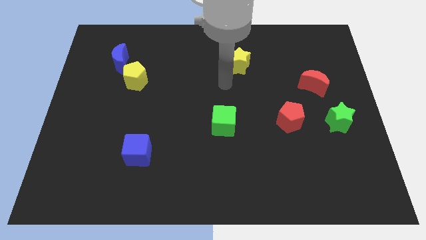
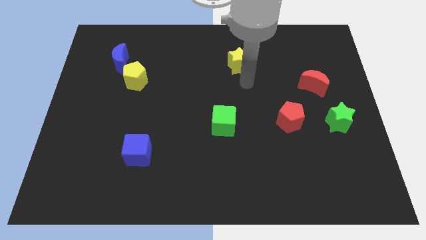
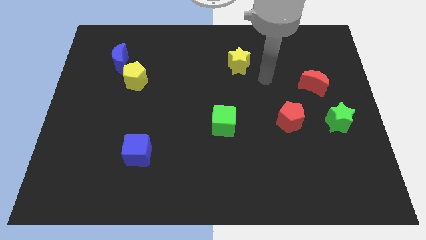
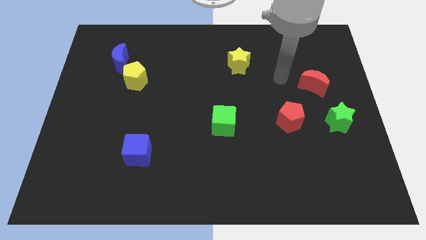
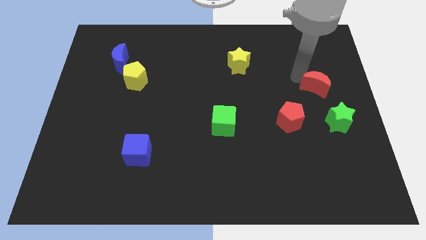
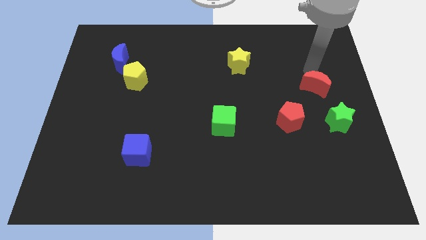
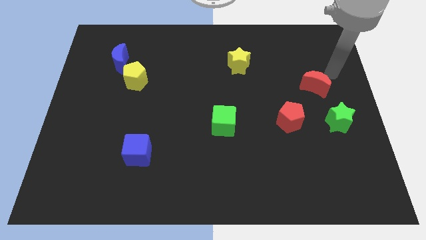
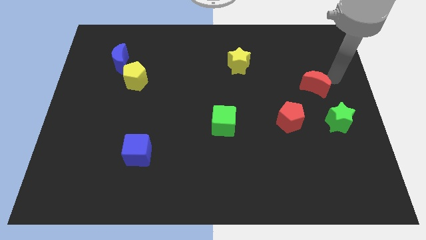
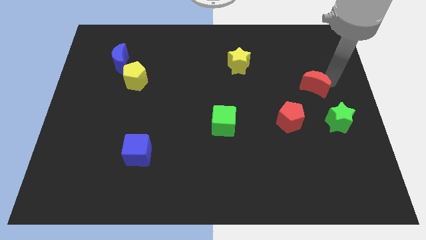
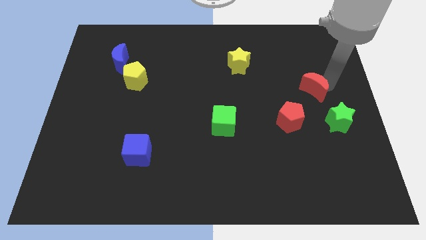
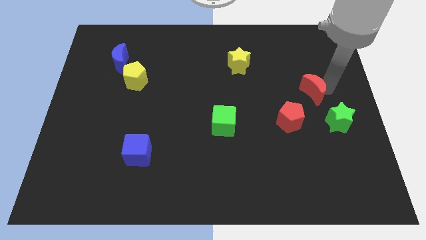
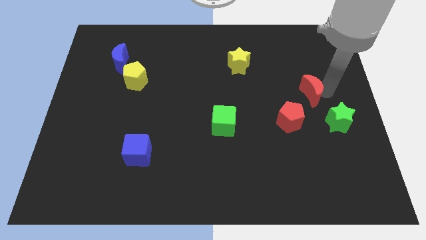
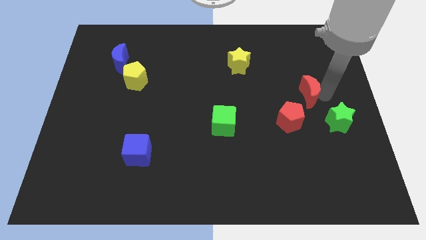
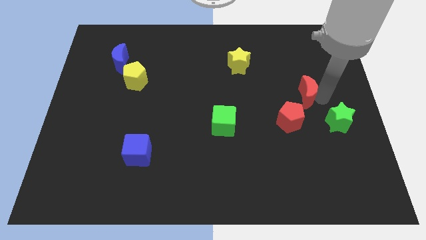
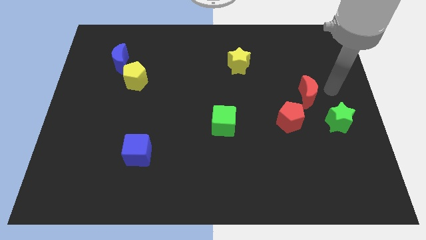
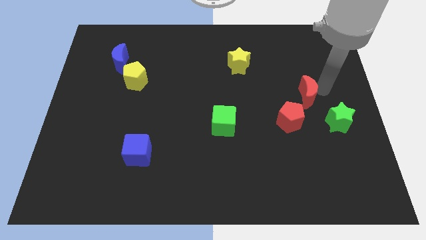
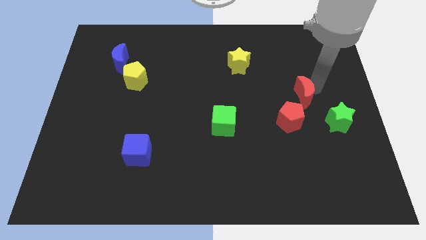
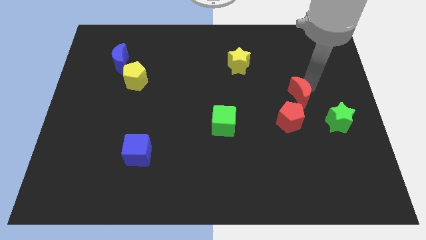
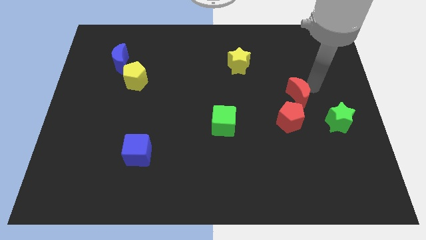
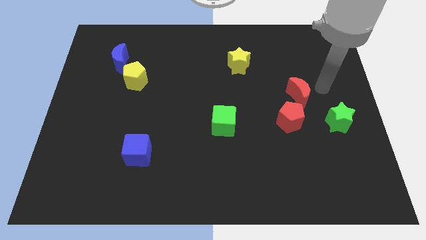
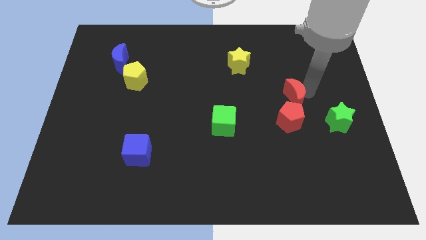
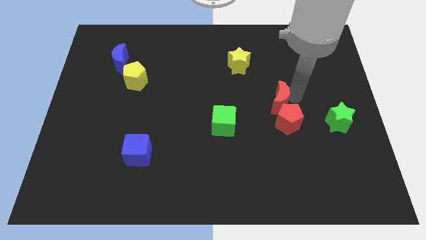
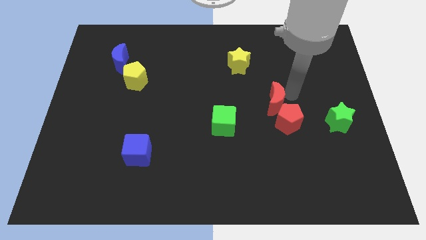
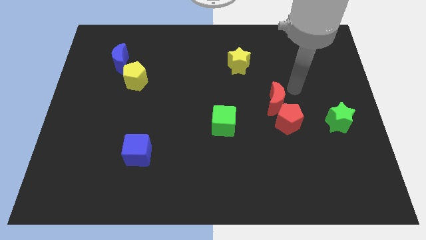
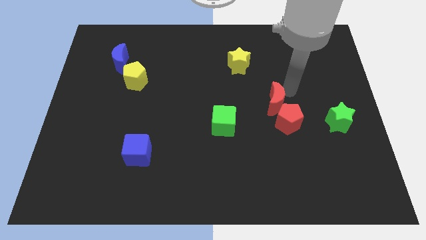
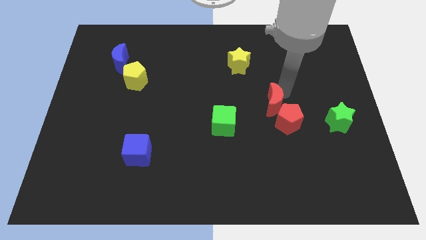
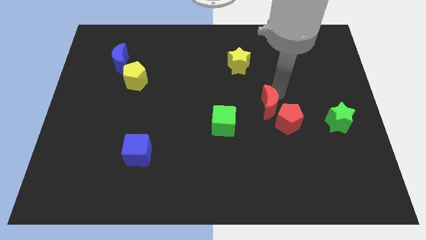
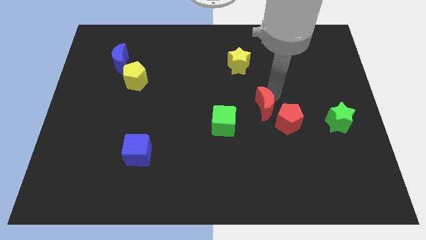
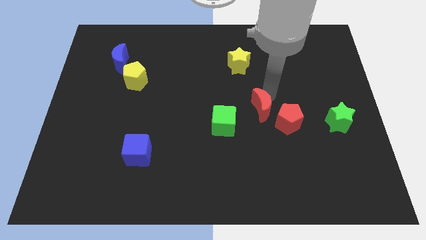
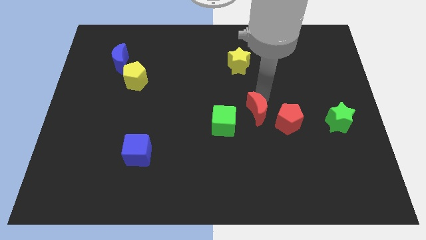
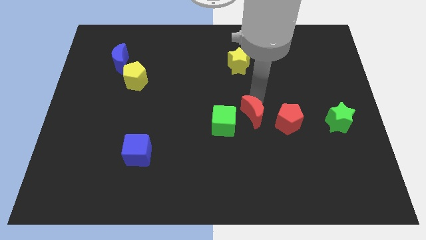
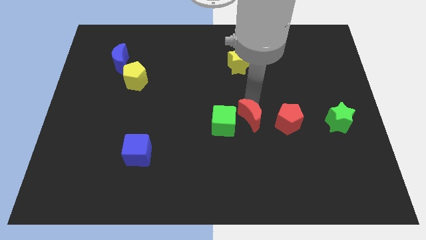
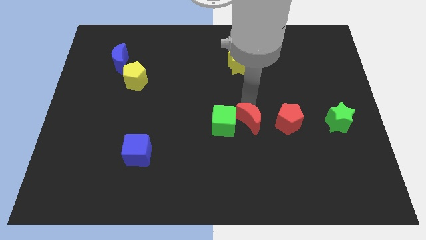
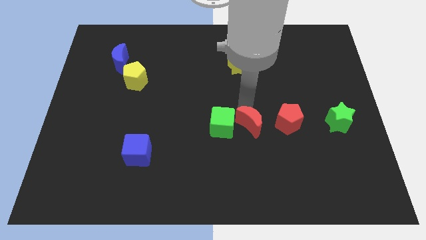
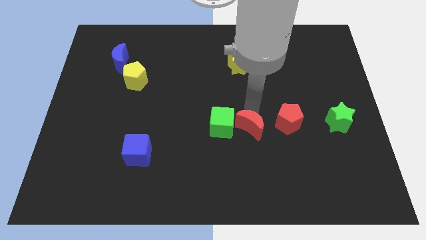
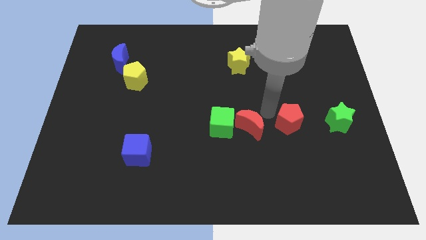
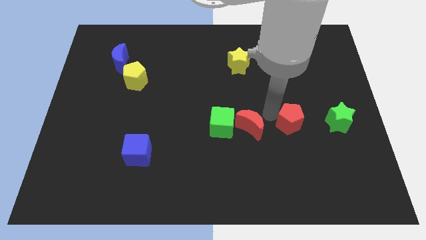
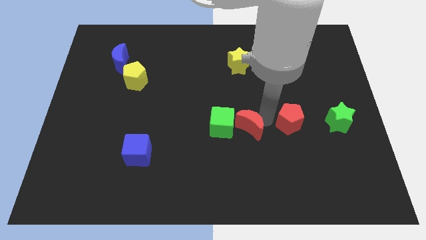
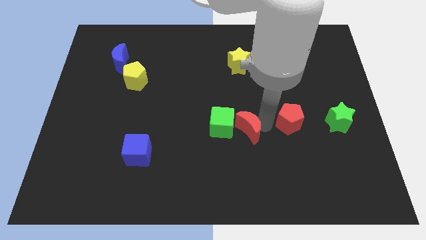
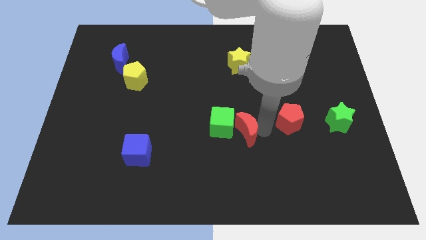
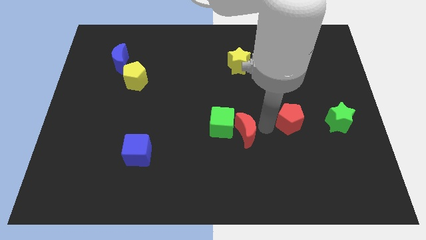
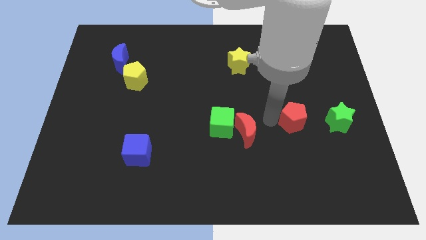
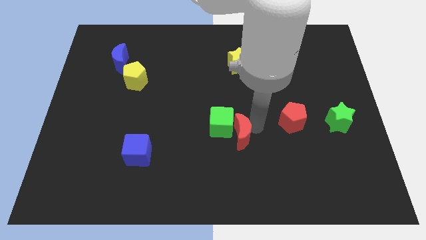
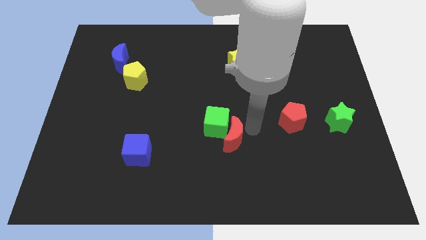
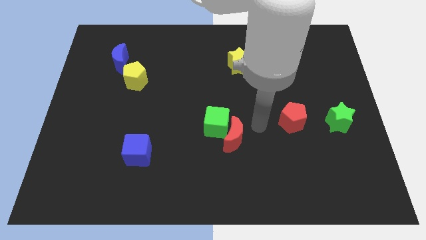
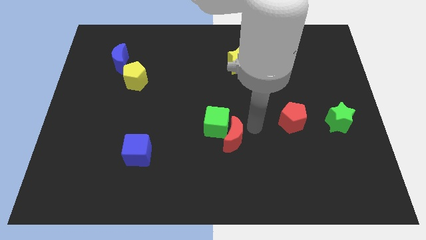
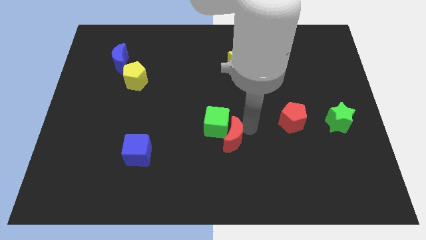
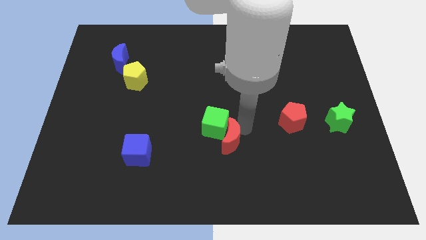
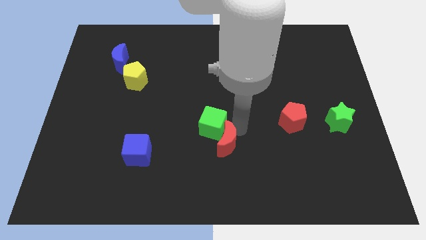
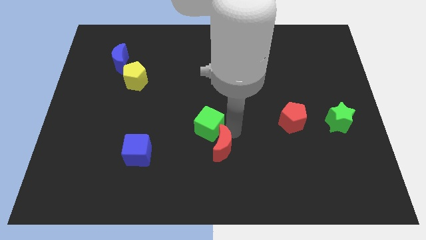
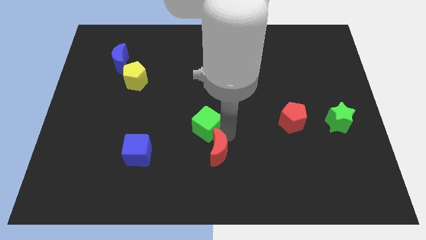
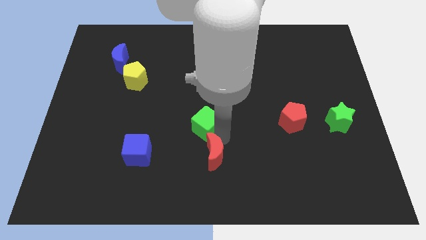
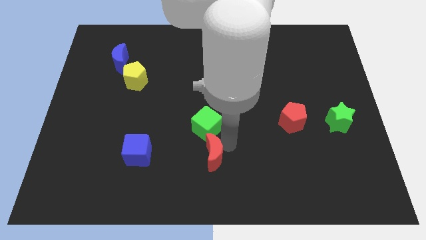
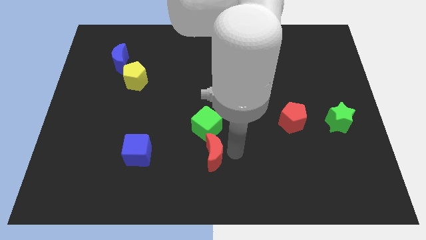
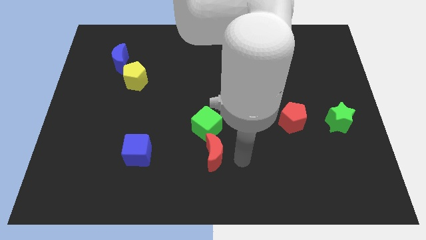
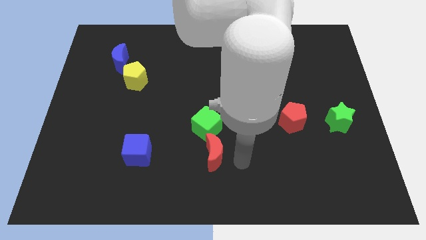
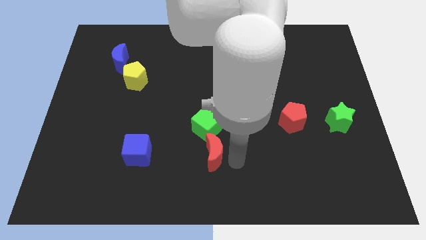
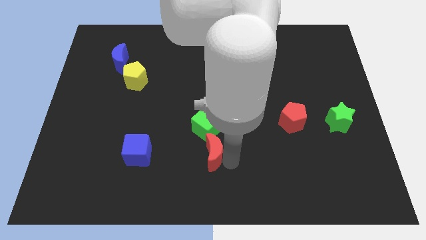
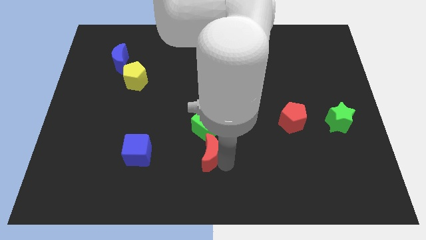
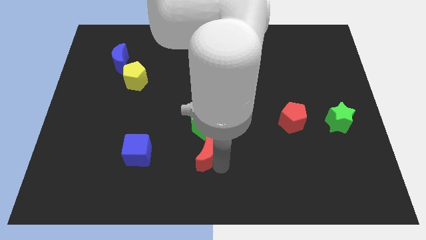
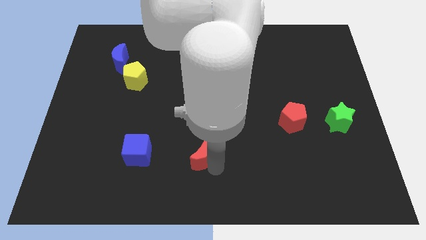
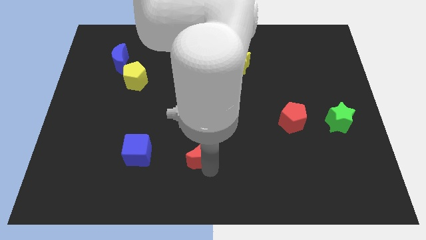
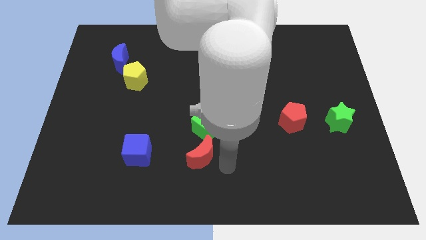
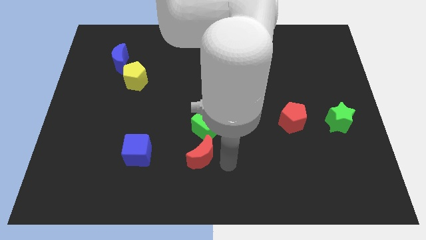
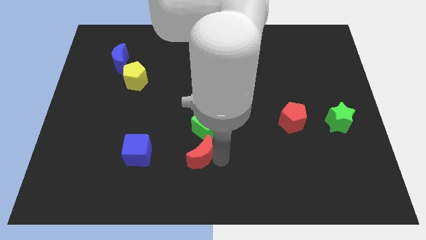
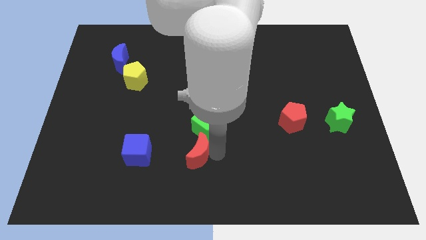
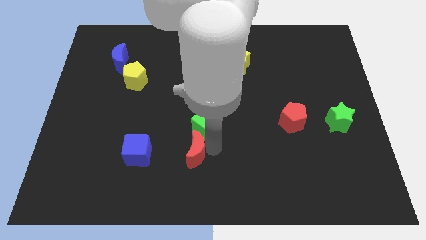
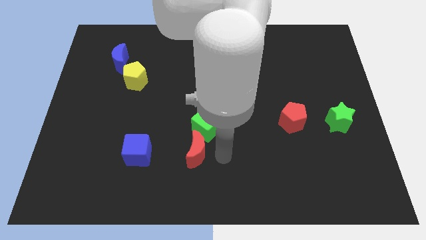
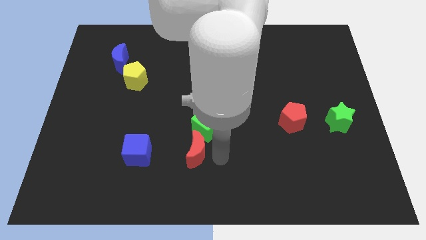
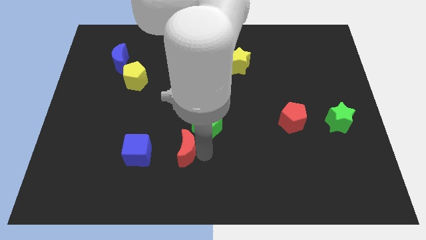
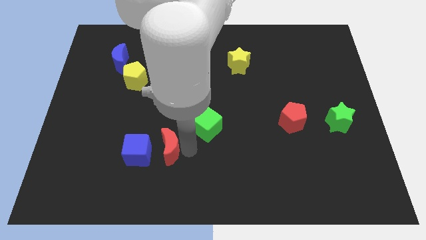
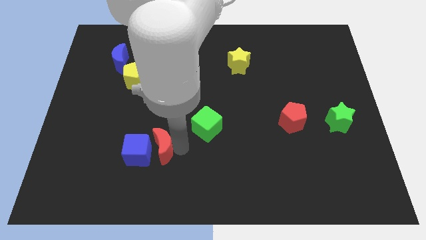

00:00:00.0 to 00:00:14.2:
move the red moon to the blue cube

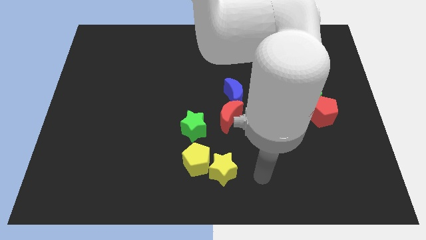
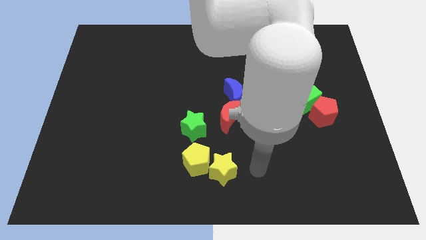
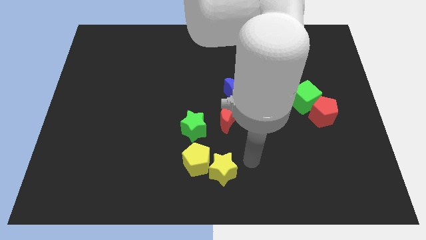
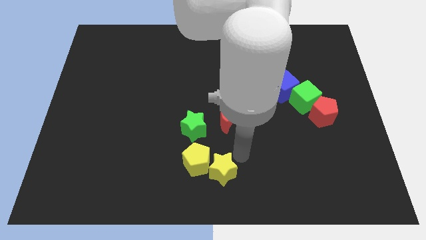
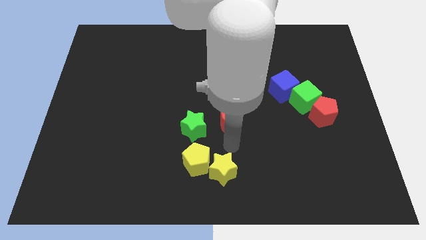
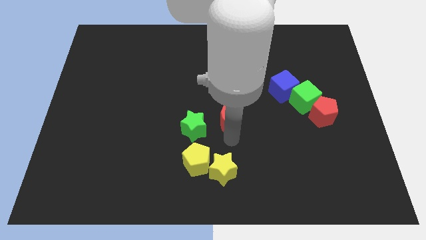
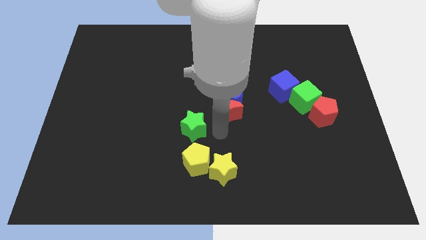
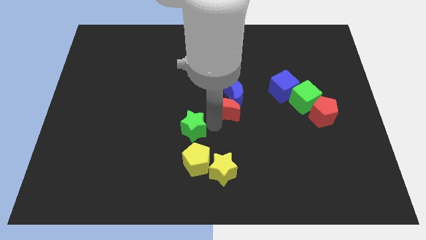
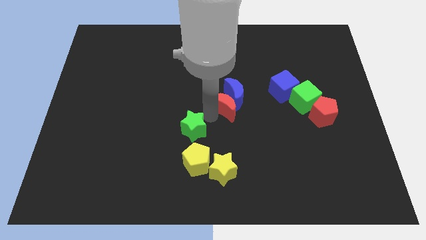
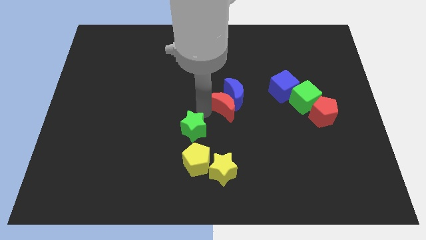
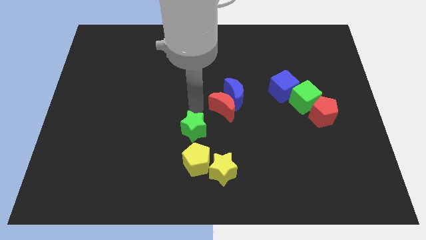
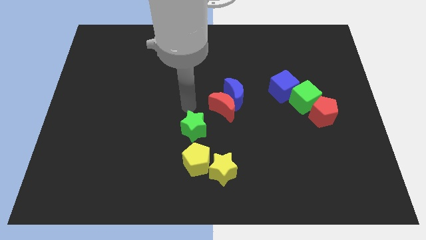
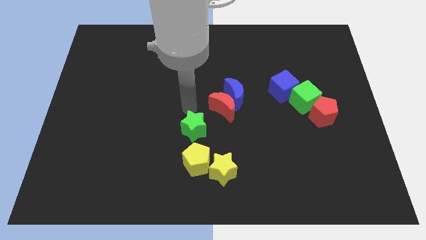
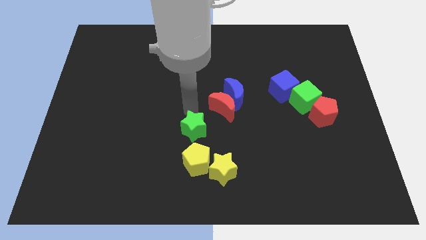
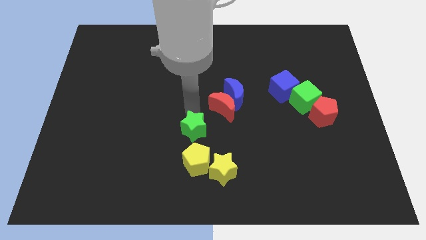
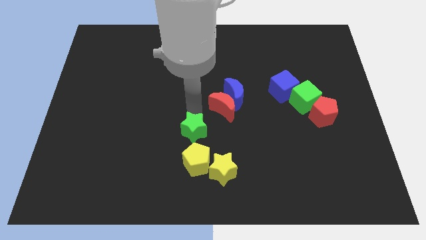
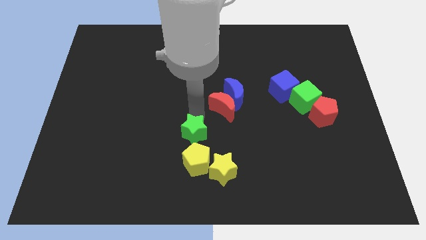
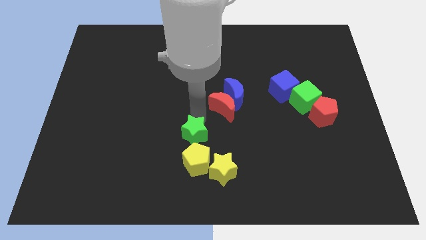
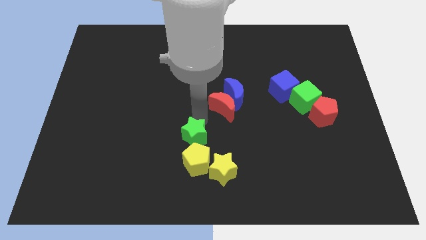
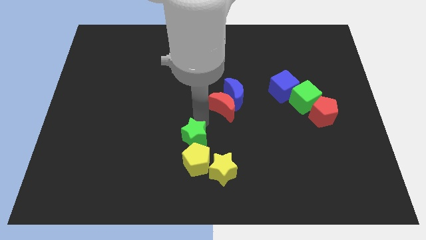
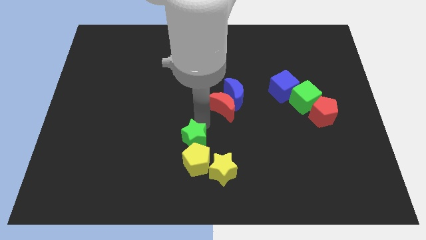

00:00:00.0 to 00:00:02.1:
slide the green star to the yellow pentagon
